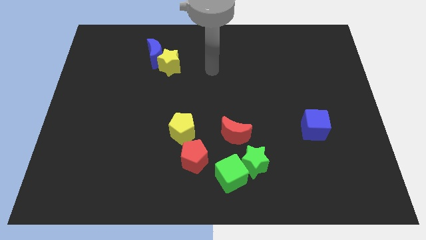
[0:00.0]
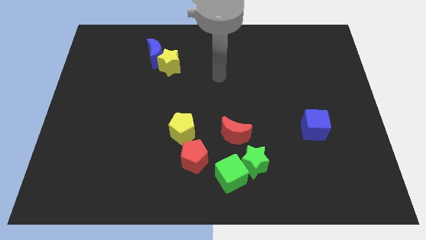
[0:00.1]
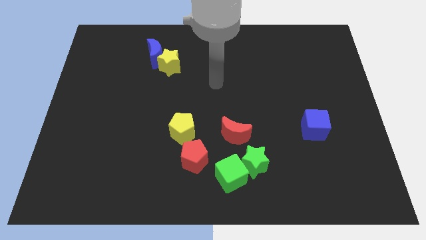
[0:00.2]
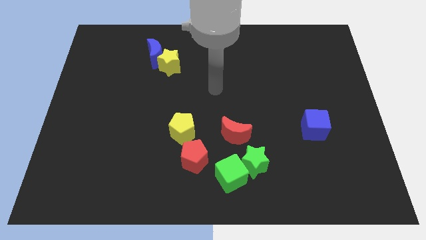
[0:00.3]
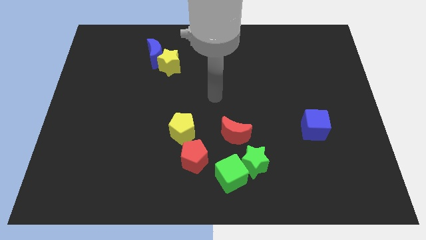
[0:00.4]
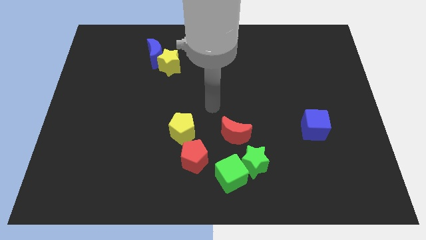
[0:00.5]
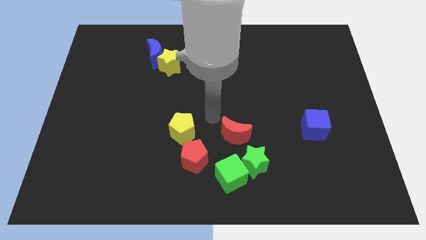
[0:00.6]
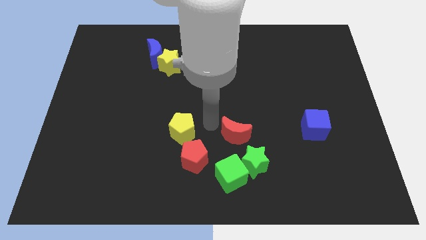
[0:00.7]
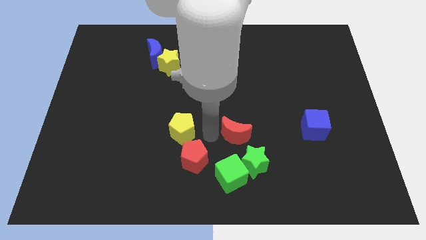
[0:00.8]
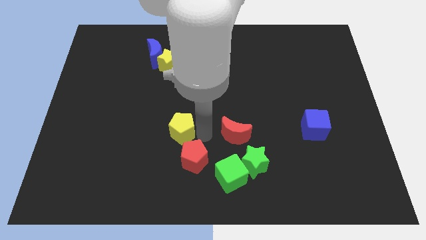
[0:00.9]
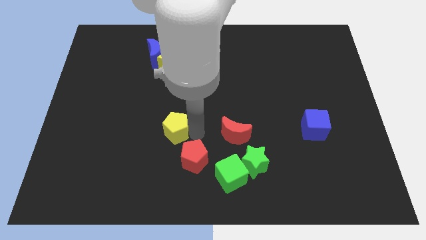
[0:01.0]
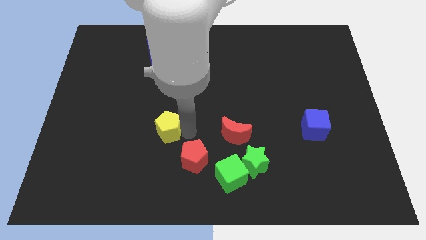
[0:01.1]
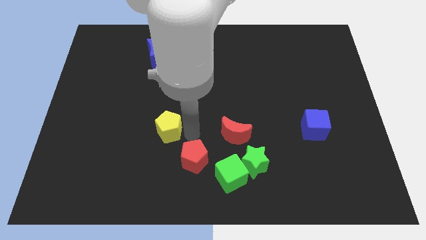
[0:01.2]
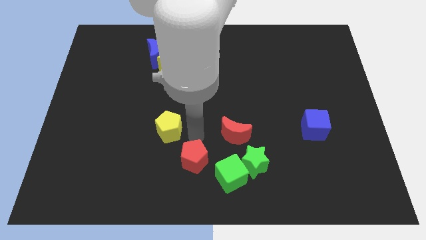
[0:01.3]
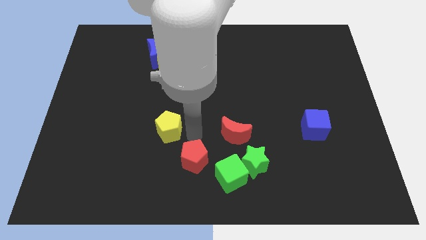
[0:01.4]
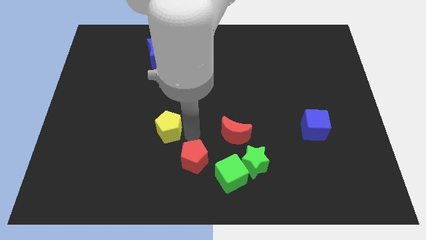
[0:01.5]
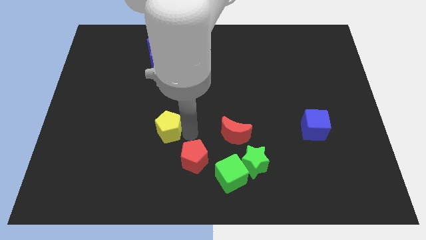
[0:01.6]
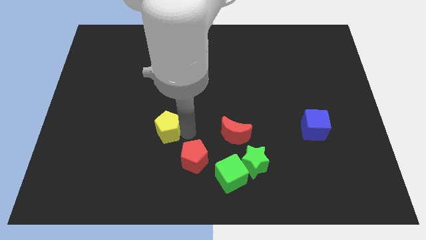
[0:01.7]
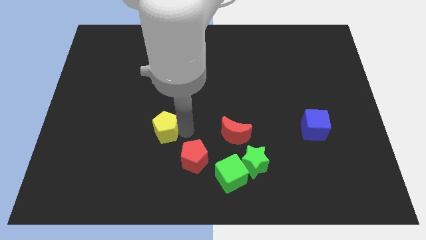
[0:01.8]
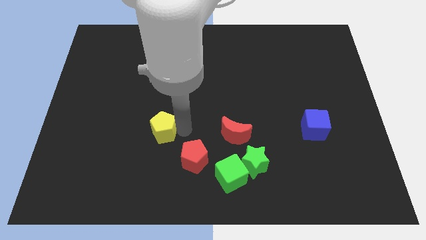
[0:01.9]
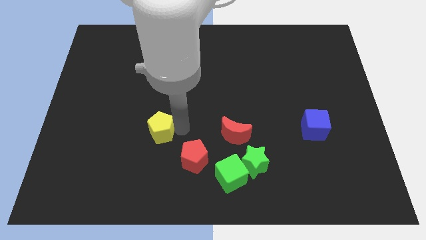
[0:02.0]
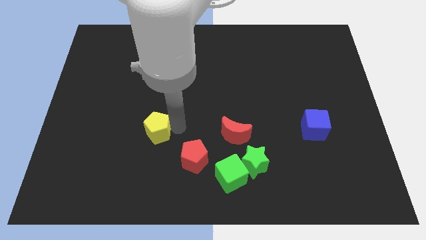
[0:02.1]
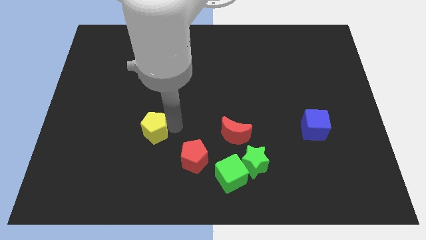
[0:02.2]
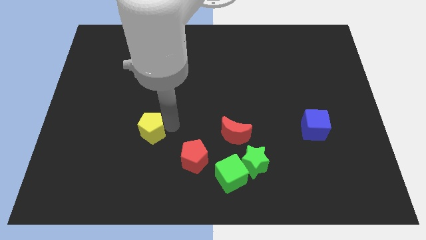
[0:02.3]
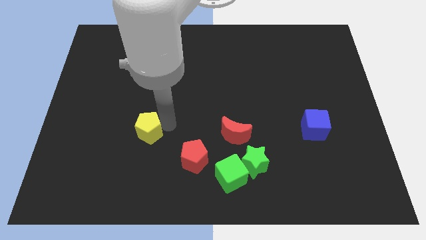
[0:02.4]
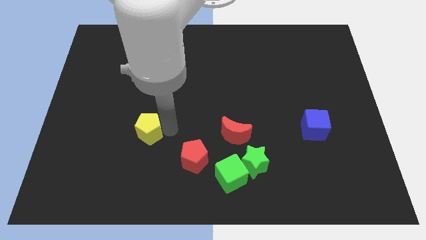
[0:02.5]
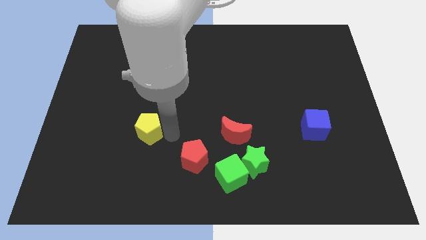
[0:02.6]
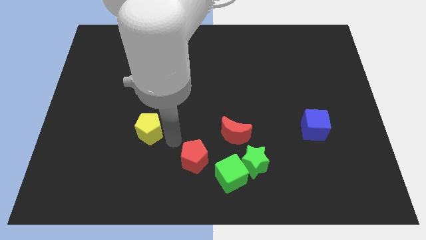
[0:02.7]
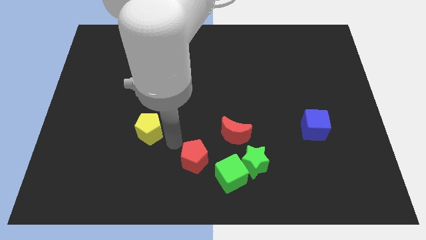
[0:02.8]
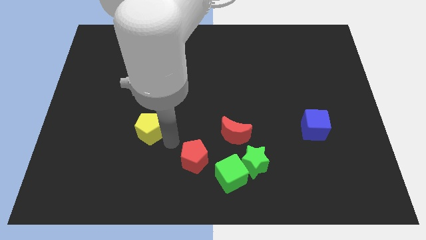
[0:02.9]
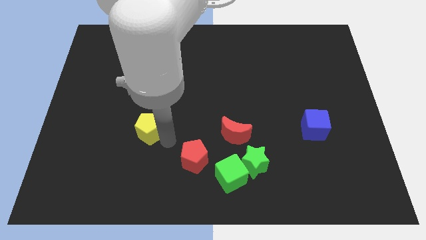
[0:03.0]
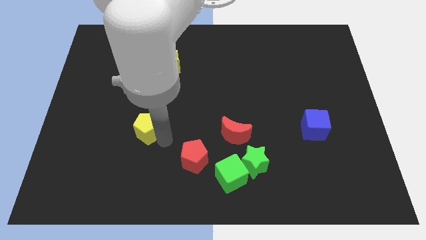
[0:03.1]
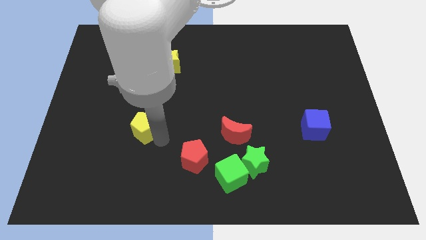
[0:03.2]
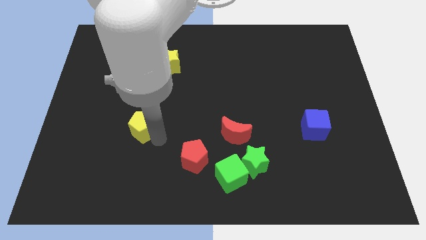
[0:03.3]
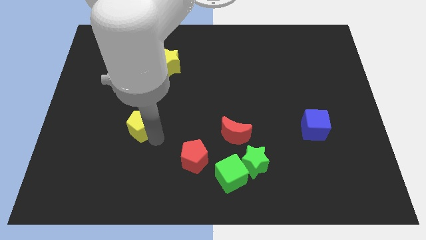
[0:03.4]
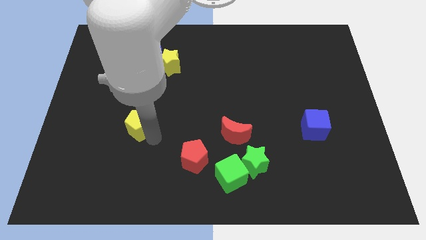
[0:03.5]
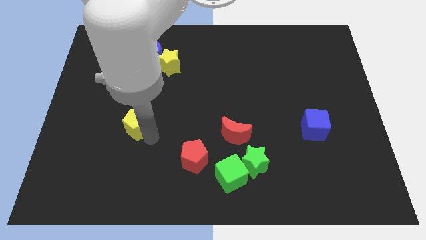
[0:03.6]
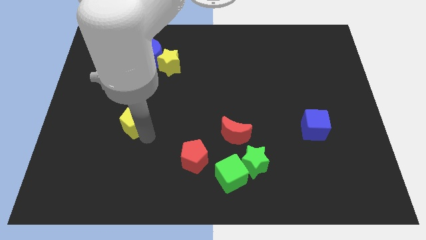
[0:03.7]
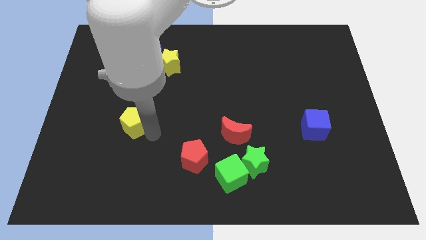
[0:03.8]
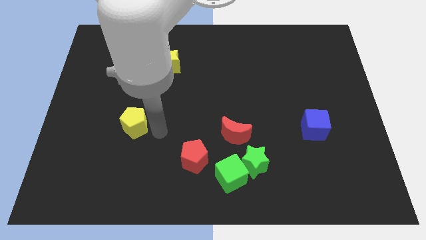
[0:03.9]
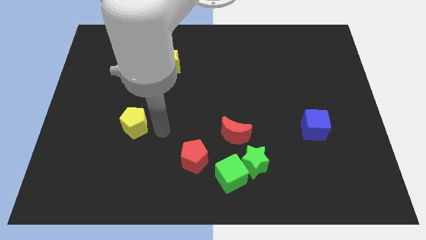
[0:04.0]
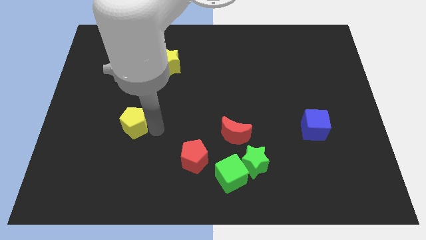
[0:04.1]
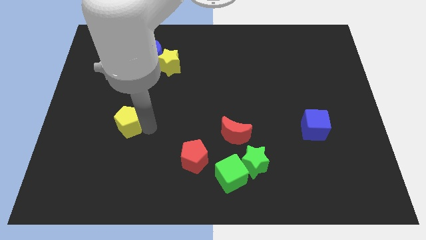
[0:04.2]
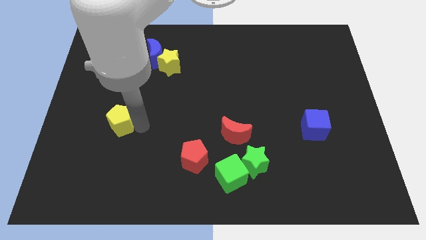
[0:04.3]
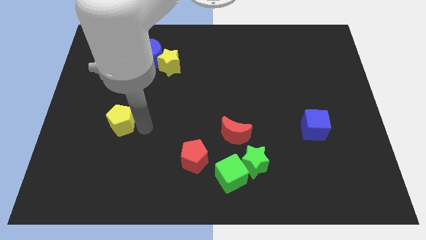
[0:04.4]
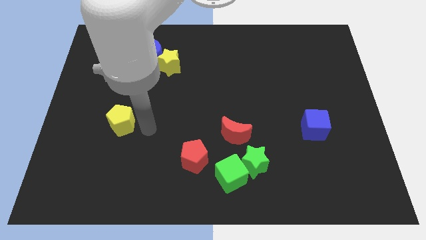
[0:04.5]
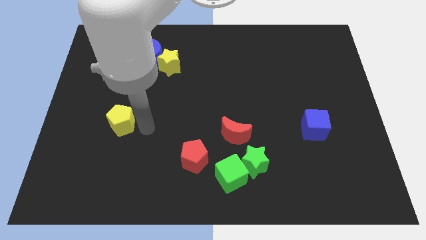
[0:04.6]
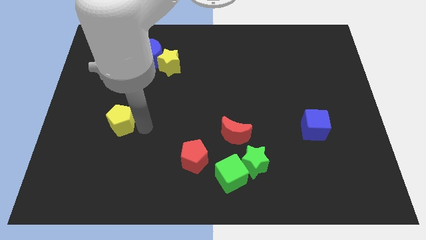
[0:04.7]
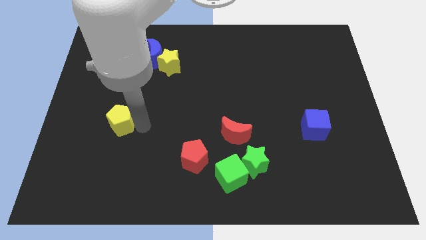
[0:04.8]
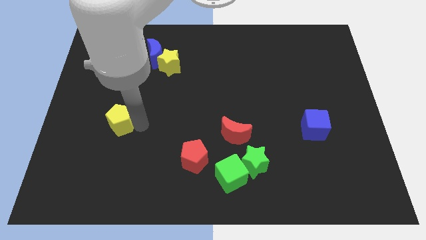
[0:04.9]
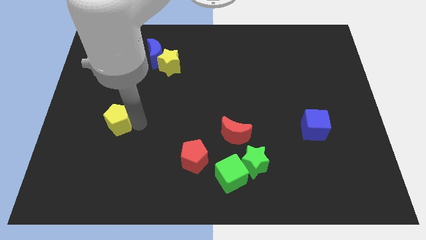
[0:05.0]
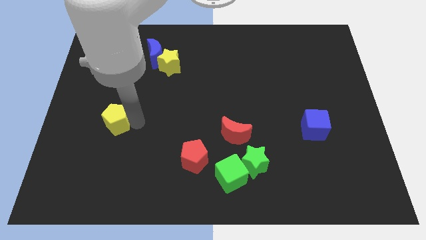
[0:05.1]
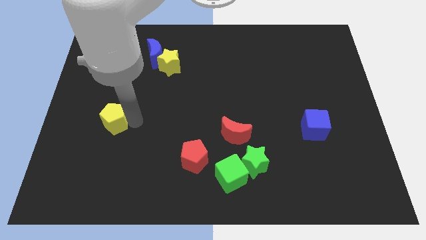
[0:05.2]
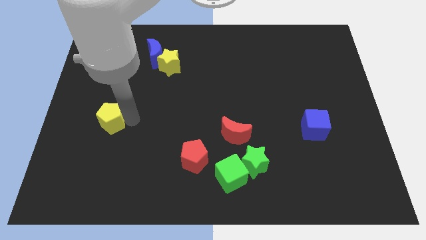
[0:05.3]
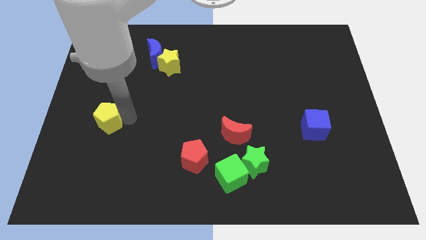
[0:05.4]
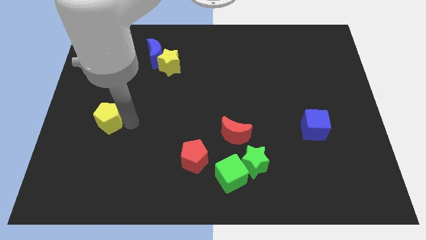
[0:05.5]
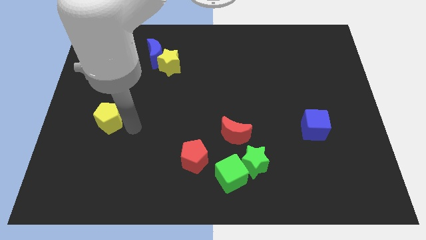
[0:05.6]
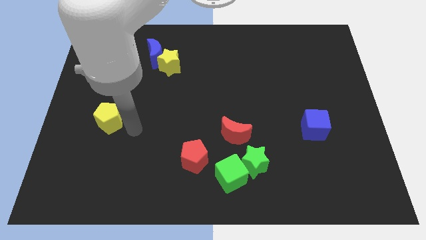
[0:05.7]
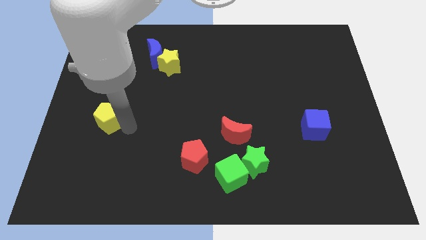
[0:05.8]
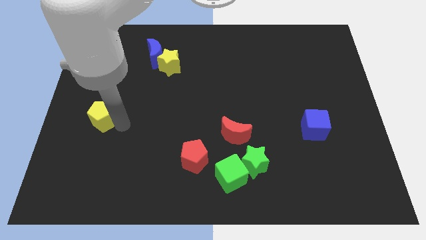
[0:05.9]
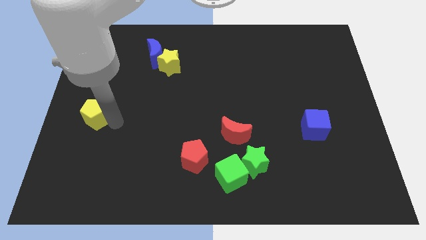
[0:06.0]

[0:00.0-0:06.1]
push the yellow pentagon to the left side

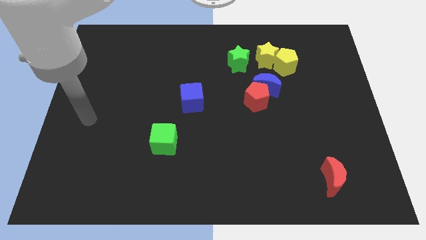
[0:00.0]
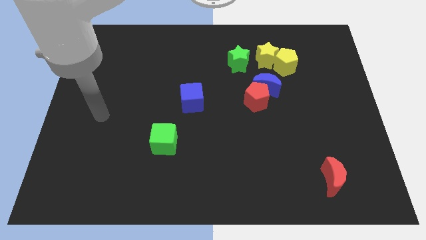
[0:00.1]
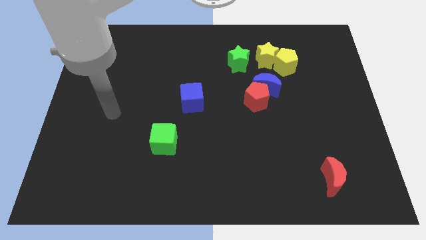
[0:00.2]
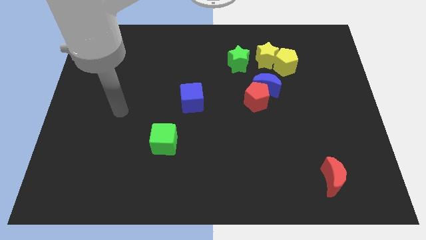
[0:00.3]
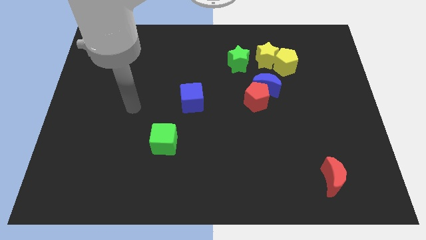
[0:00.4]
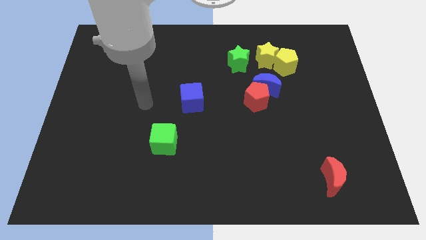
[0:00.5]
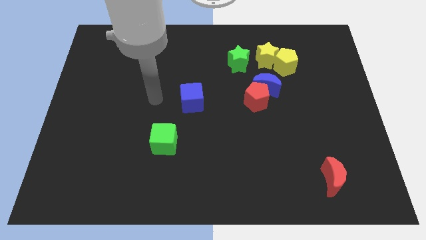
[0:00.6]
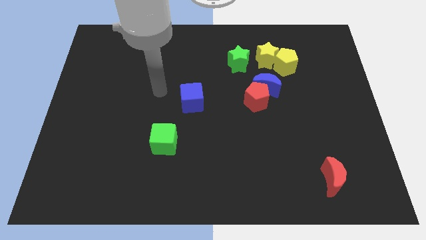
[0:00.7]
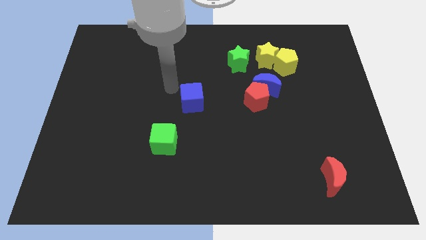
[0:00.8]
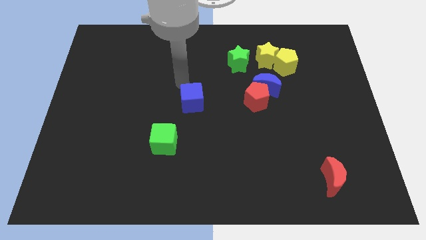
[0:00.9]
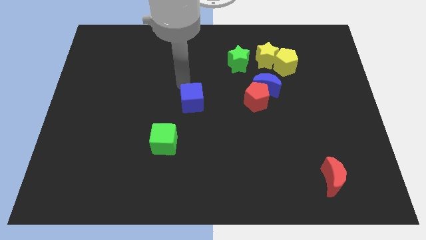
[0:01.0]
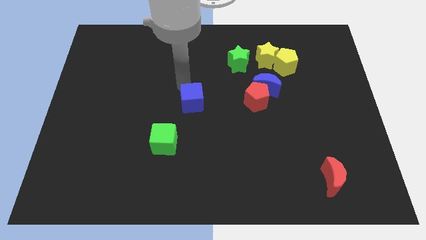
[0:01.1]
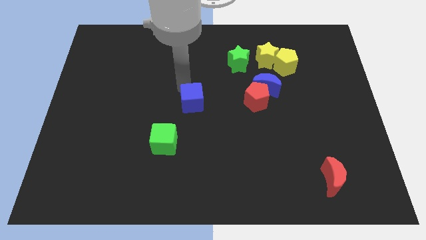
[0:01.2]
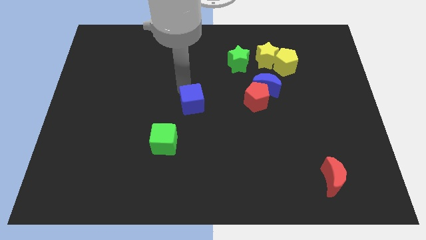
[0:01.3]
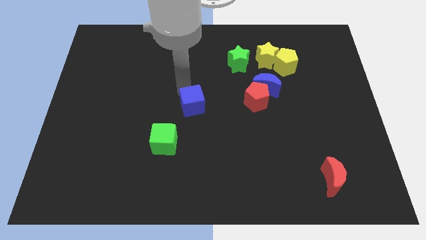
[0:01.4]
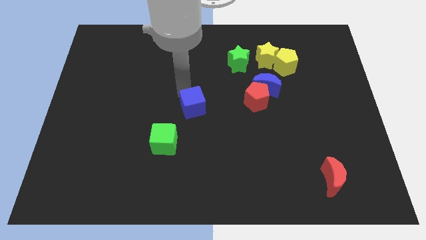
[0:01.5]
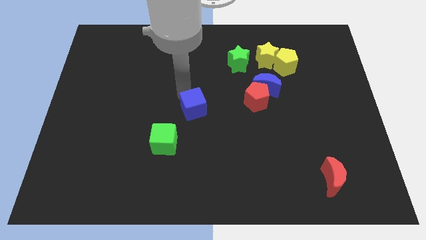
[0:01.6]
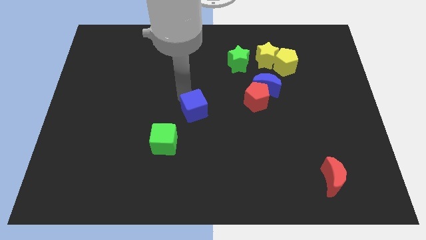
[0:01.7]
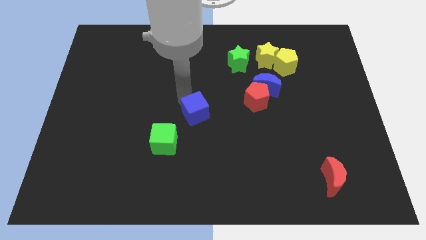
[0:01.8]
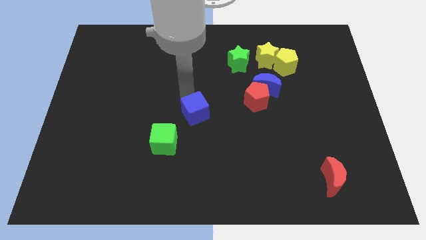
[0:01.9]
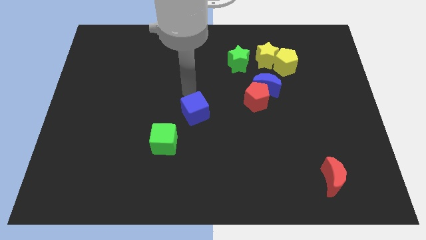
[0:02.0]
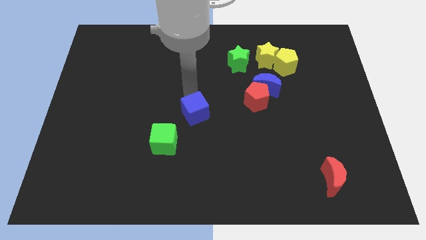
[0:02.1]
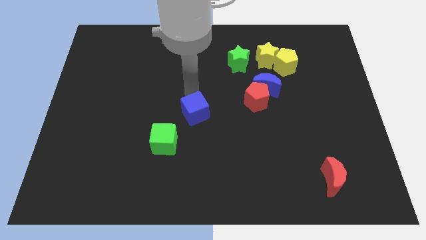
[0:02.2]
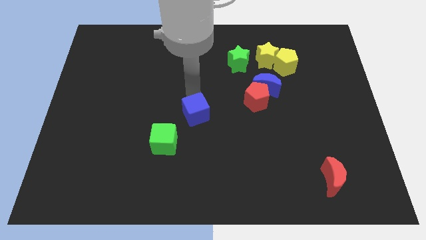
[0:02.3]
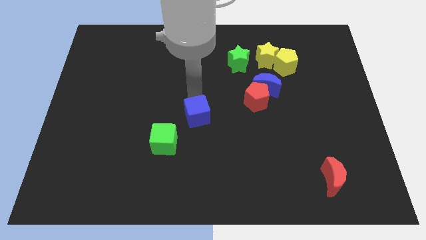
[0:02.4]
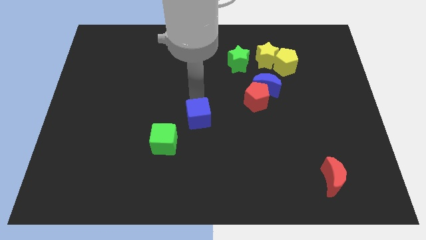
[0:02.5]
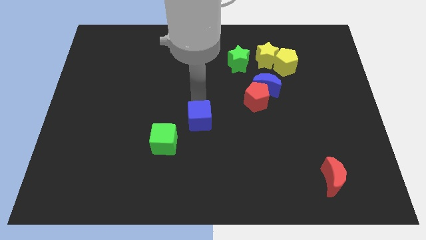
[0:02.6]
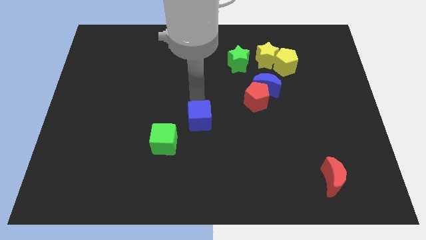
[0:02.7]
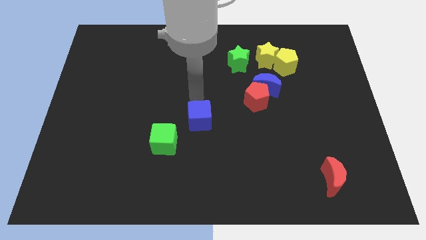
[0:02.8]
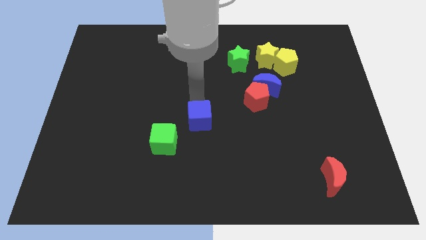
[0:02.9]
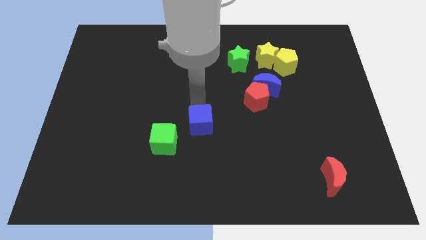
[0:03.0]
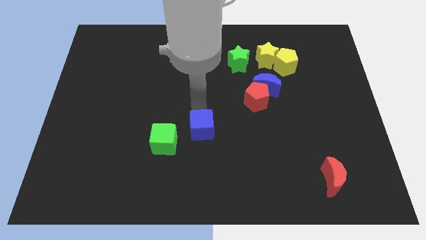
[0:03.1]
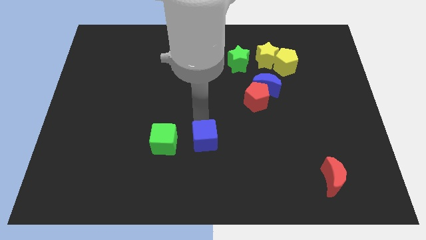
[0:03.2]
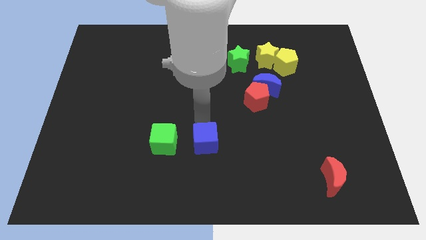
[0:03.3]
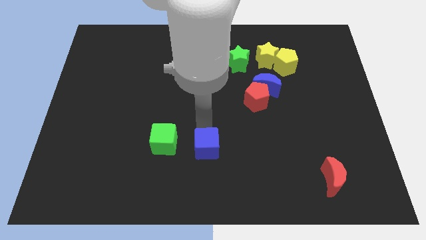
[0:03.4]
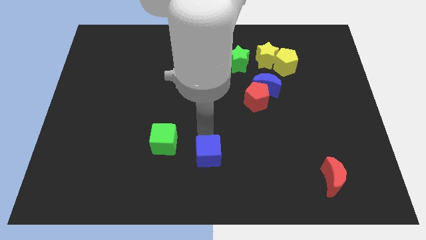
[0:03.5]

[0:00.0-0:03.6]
push the blue cube to the bottom side
